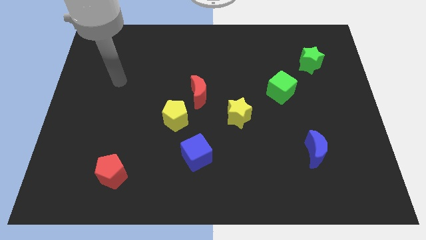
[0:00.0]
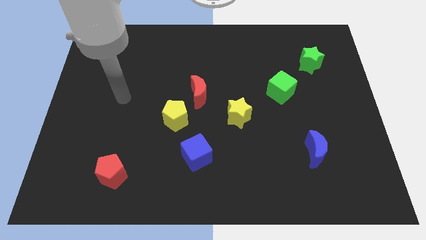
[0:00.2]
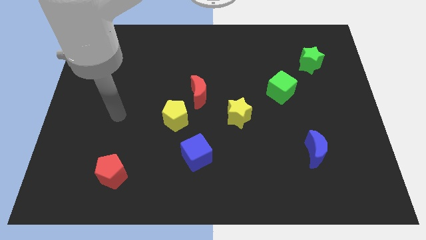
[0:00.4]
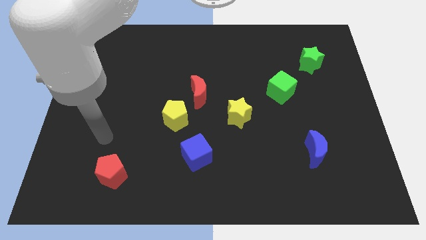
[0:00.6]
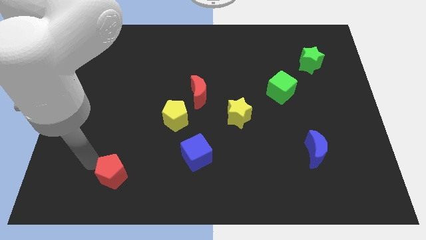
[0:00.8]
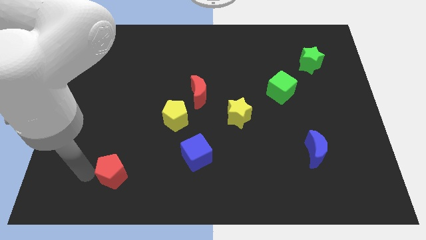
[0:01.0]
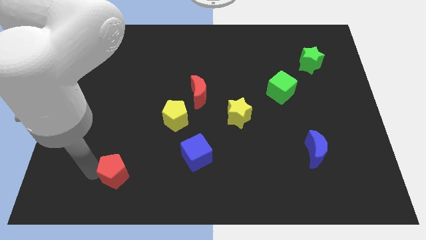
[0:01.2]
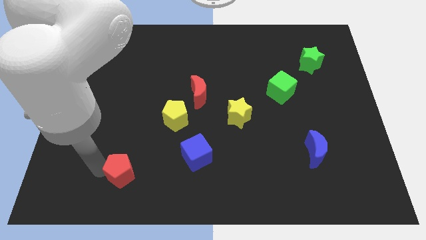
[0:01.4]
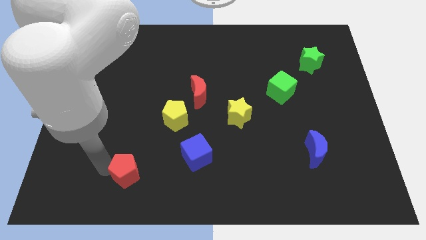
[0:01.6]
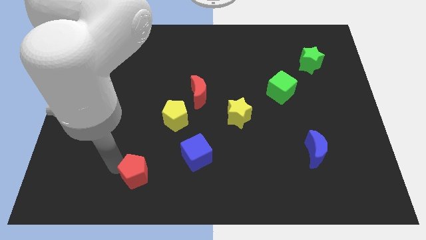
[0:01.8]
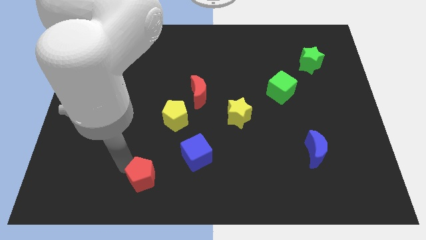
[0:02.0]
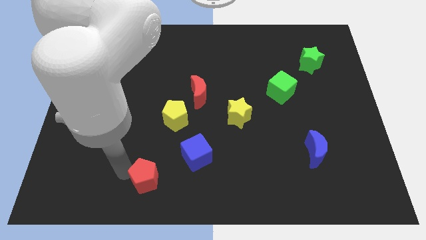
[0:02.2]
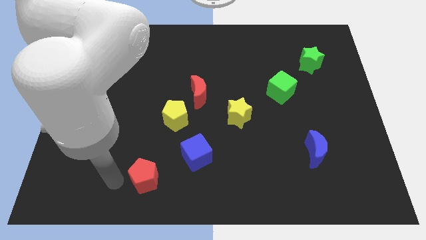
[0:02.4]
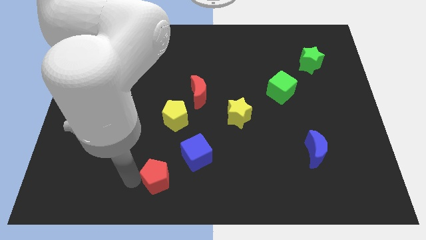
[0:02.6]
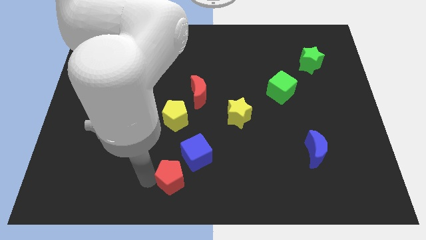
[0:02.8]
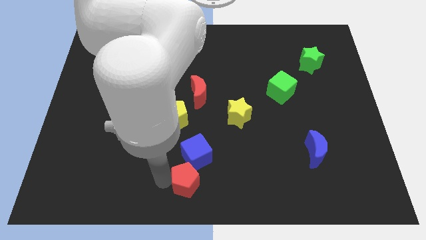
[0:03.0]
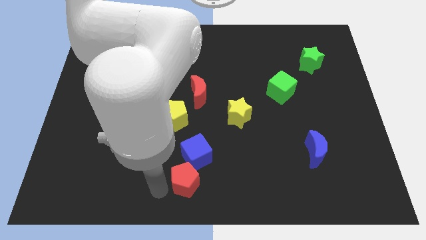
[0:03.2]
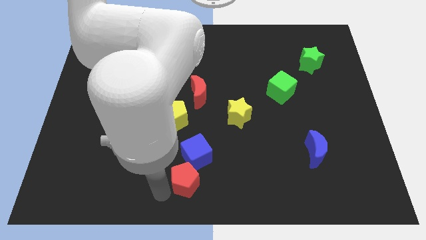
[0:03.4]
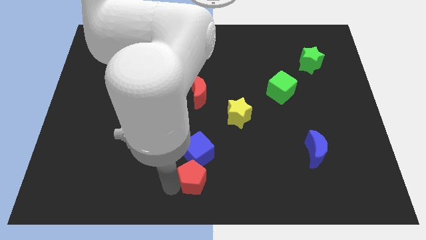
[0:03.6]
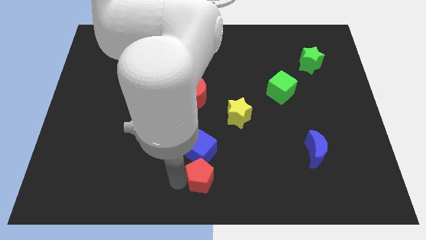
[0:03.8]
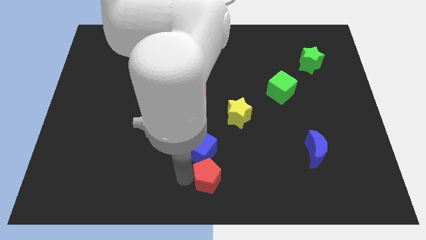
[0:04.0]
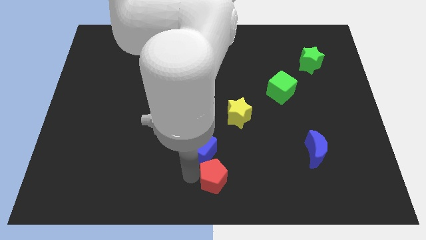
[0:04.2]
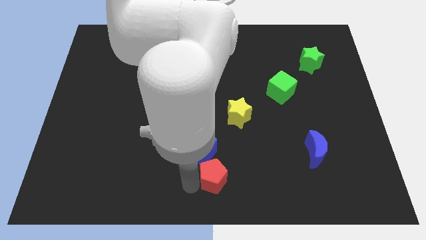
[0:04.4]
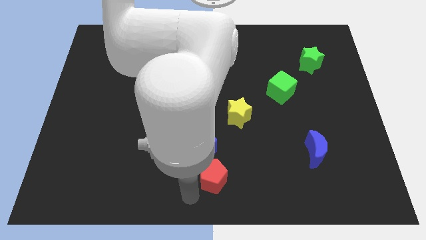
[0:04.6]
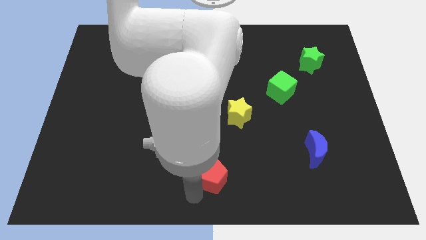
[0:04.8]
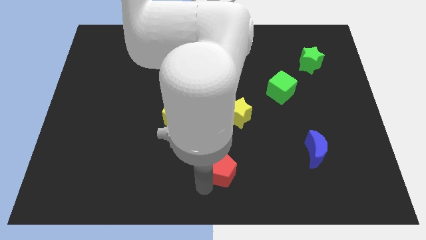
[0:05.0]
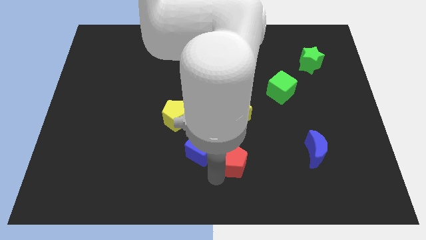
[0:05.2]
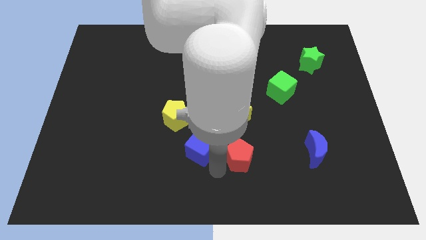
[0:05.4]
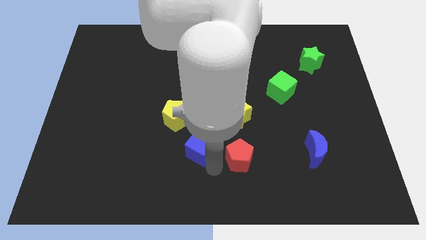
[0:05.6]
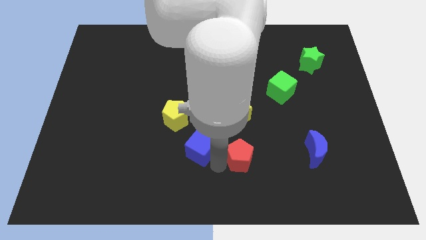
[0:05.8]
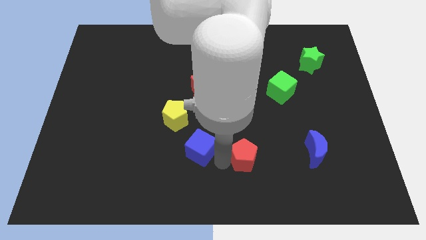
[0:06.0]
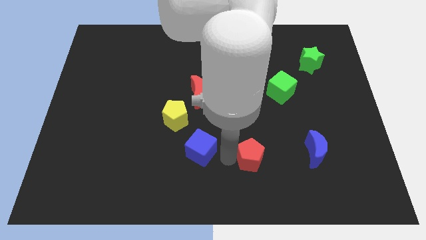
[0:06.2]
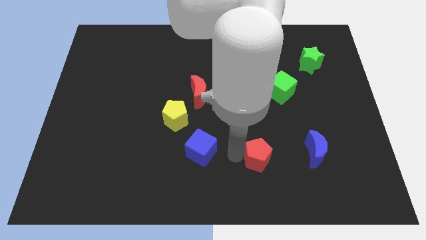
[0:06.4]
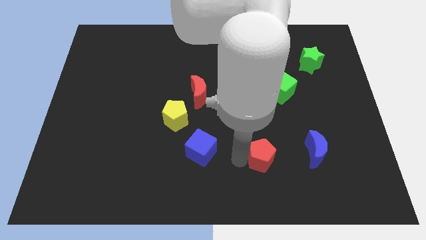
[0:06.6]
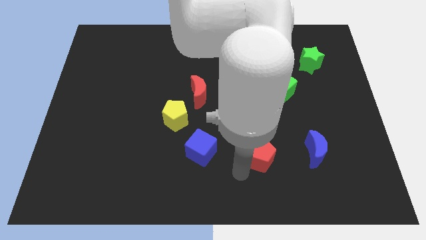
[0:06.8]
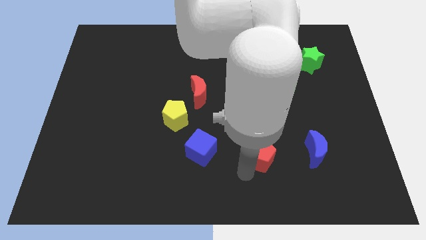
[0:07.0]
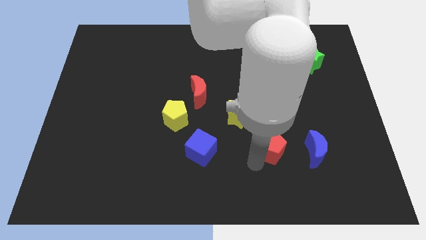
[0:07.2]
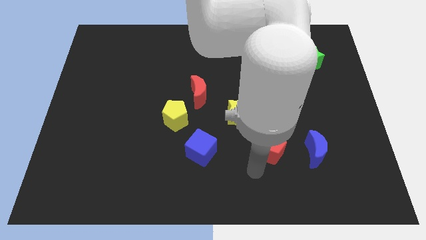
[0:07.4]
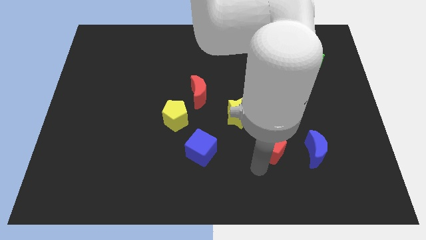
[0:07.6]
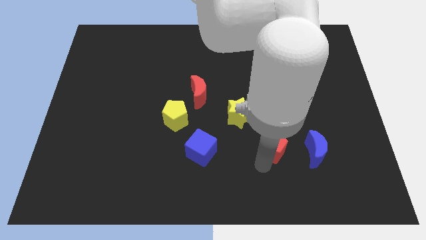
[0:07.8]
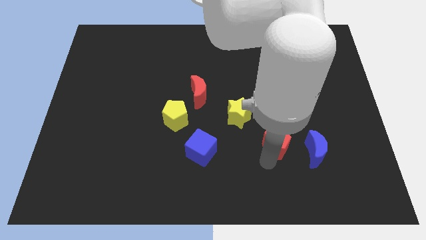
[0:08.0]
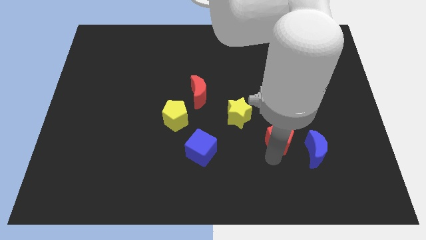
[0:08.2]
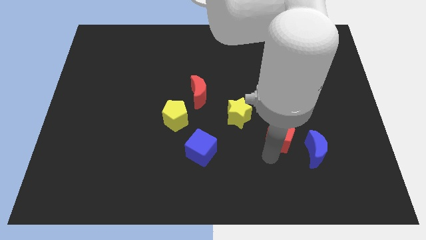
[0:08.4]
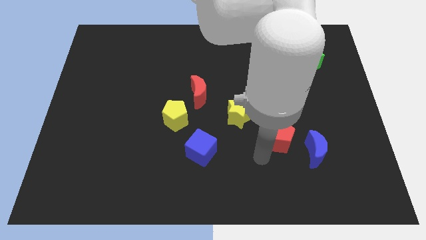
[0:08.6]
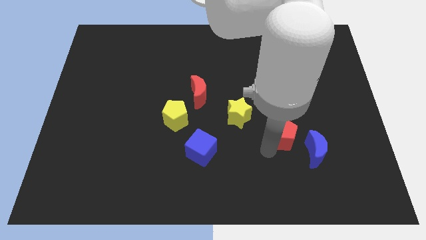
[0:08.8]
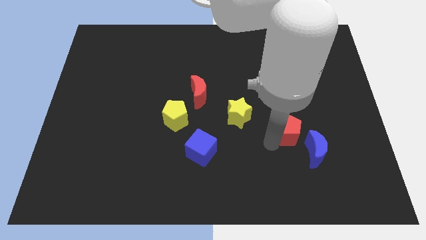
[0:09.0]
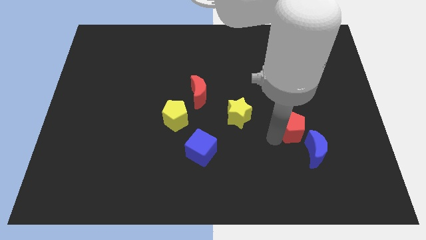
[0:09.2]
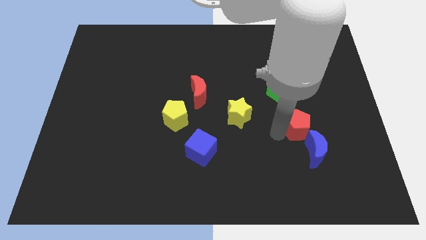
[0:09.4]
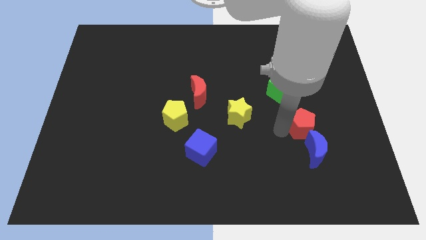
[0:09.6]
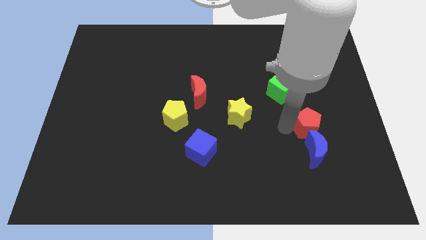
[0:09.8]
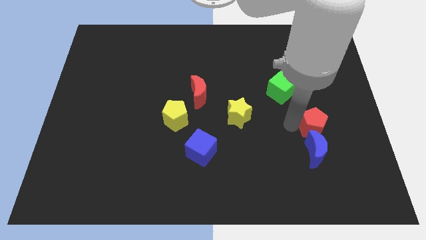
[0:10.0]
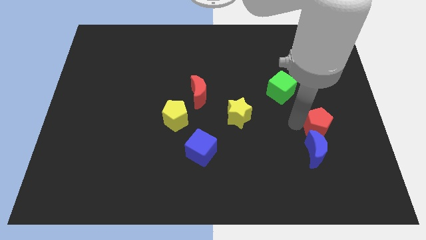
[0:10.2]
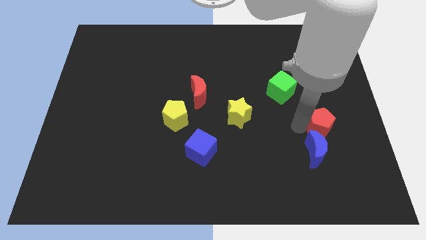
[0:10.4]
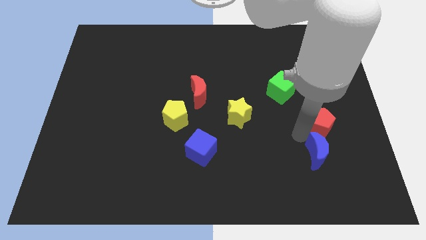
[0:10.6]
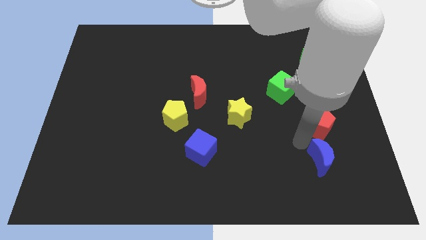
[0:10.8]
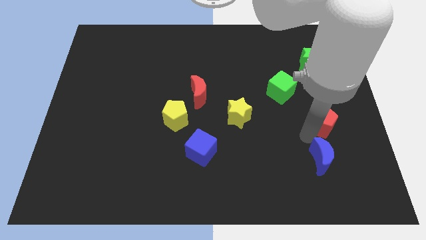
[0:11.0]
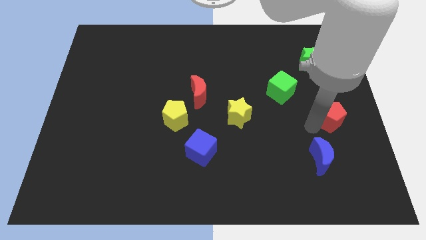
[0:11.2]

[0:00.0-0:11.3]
put the red pentagon to the right side of the board

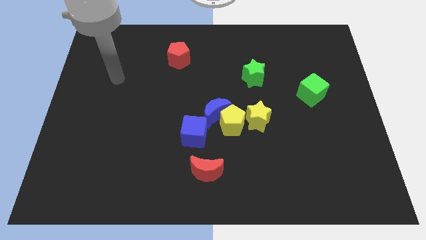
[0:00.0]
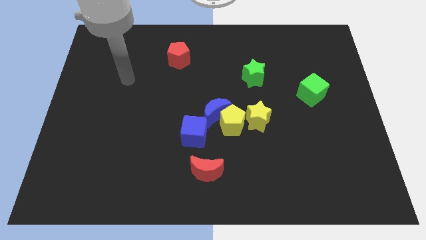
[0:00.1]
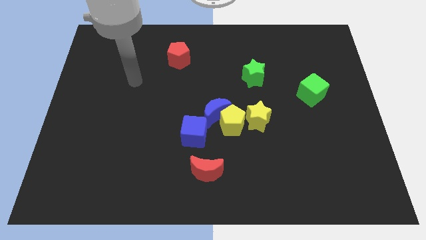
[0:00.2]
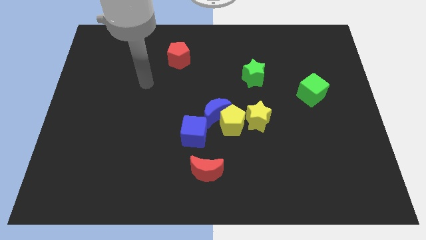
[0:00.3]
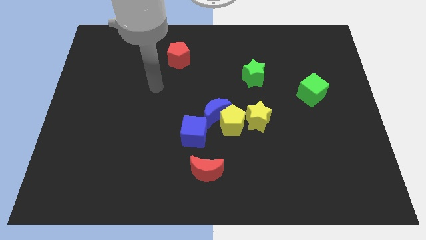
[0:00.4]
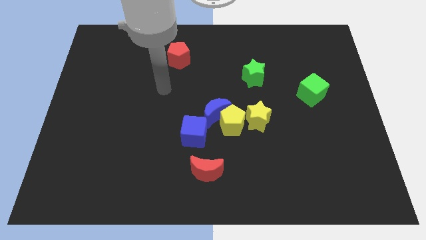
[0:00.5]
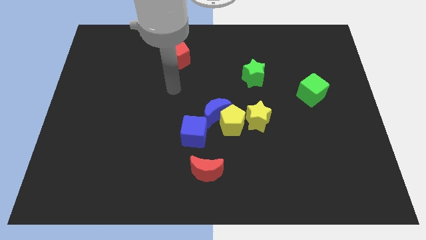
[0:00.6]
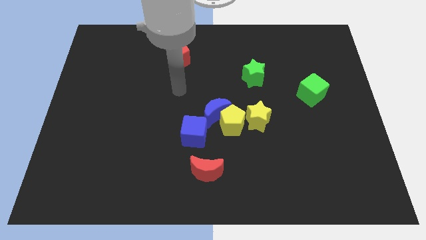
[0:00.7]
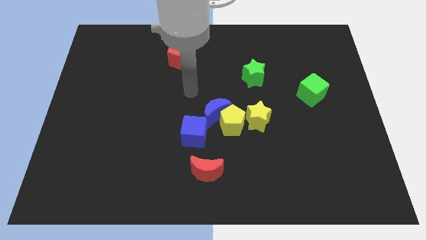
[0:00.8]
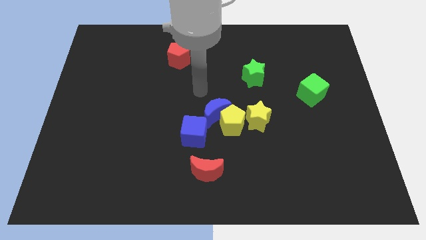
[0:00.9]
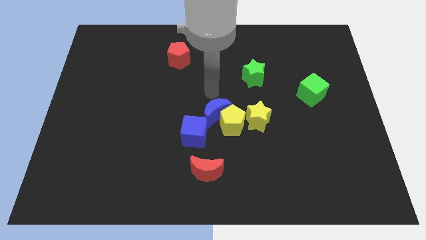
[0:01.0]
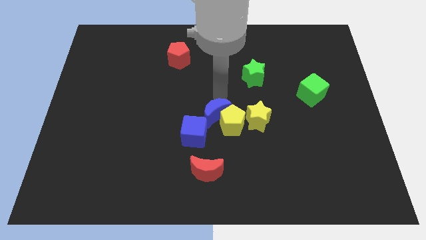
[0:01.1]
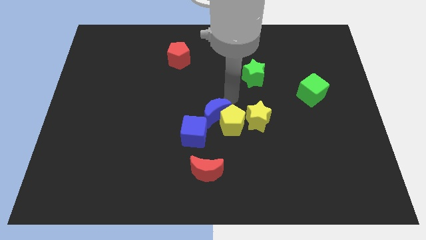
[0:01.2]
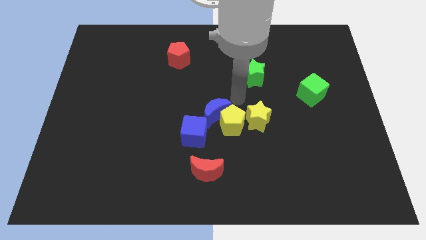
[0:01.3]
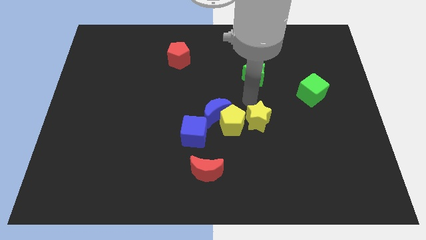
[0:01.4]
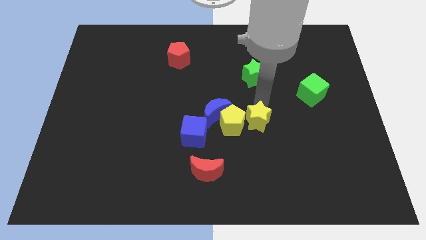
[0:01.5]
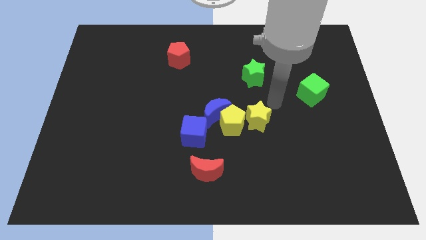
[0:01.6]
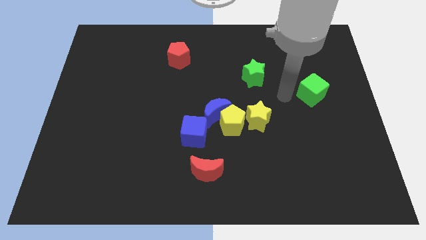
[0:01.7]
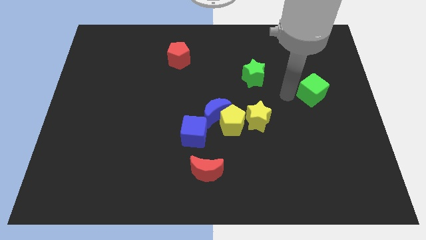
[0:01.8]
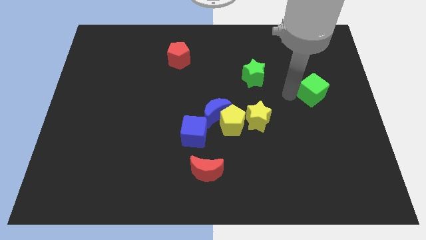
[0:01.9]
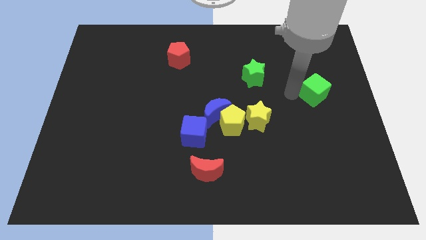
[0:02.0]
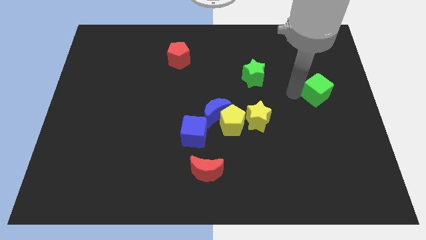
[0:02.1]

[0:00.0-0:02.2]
slide the green cube to the right side of the board
